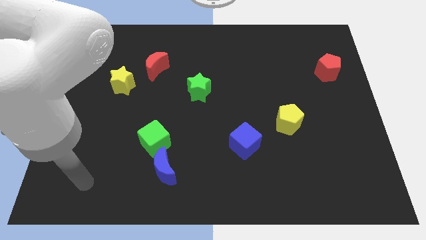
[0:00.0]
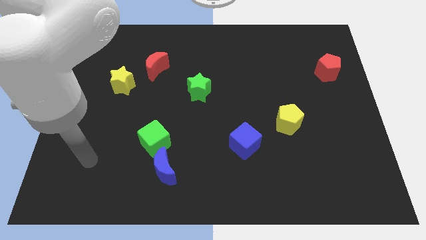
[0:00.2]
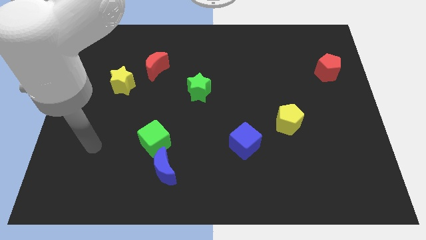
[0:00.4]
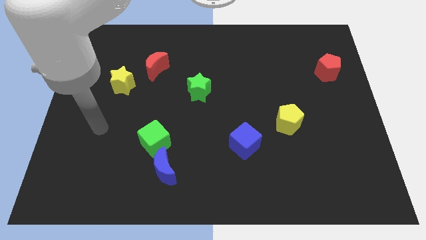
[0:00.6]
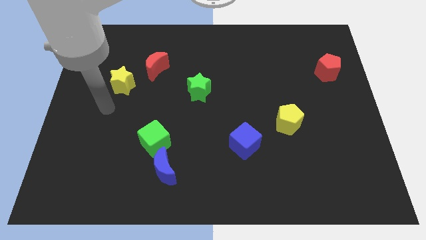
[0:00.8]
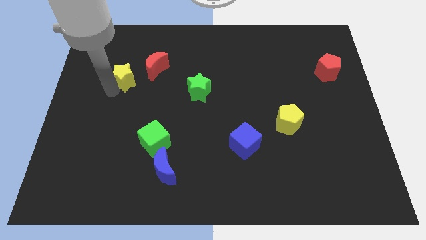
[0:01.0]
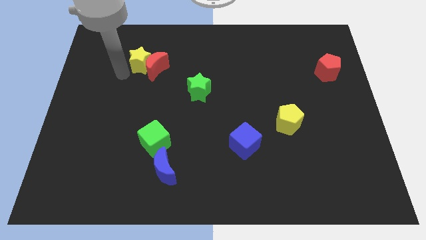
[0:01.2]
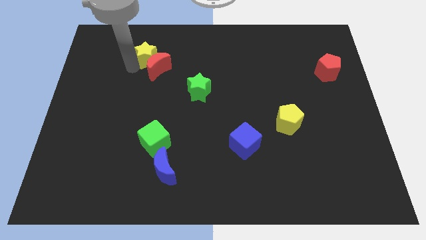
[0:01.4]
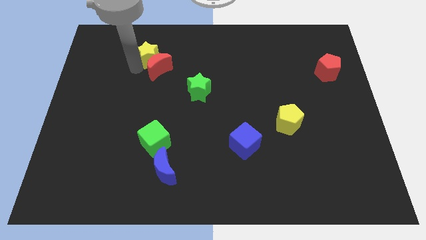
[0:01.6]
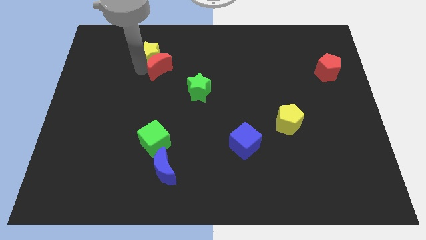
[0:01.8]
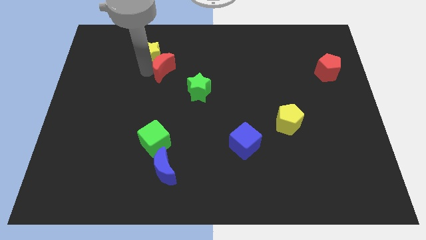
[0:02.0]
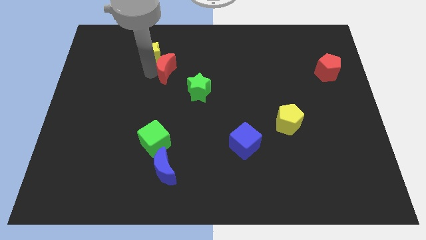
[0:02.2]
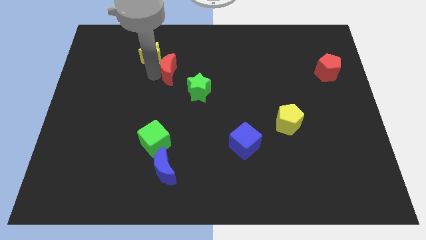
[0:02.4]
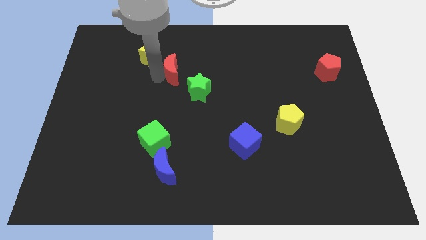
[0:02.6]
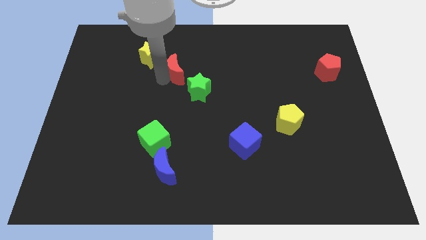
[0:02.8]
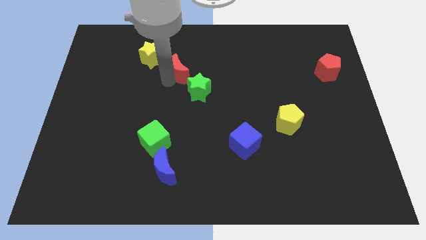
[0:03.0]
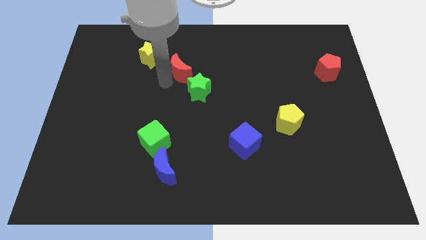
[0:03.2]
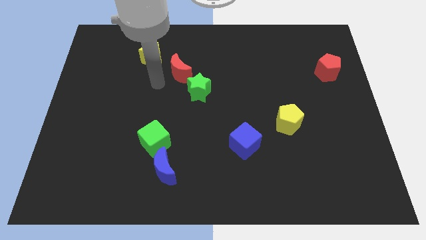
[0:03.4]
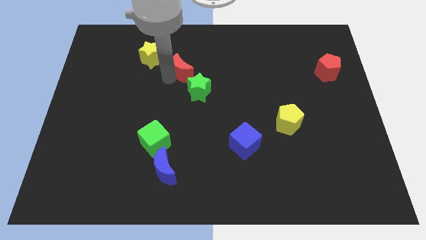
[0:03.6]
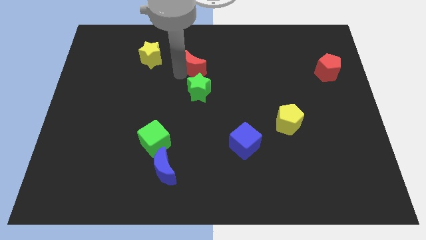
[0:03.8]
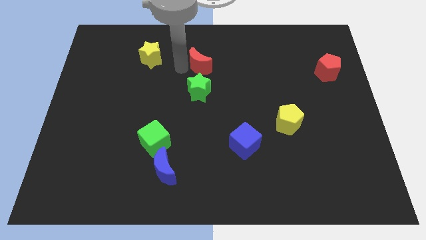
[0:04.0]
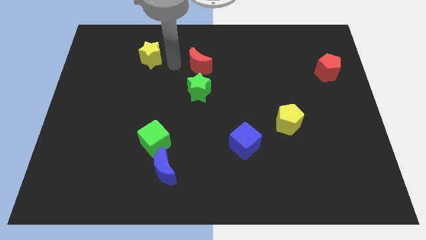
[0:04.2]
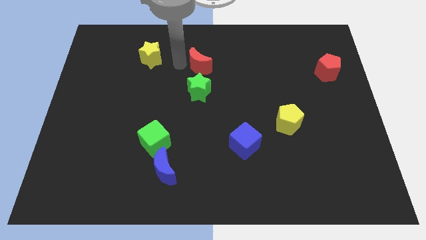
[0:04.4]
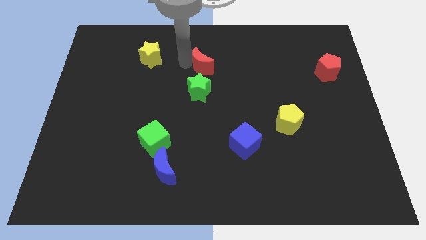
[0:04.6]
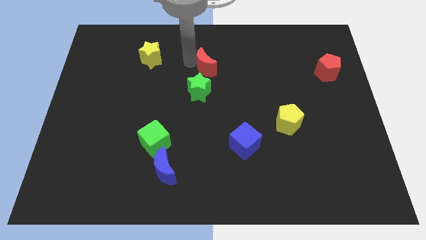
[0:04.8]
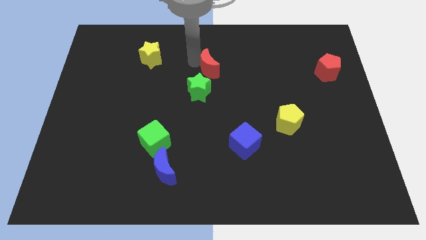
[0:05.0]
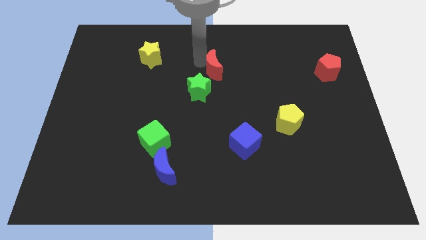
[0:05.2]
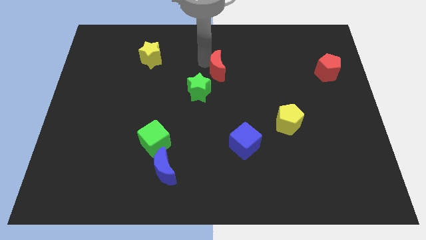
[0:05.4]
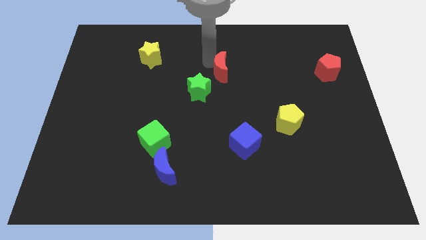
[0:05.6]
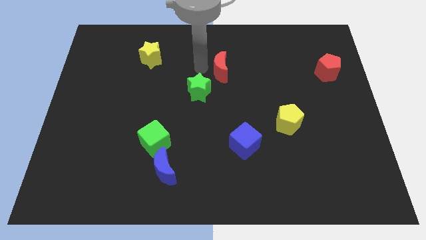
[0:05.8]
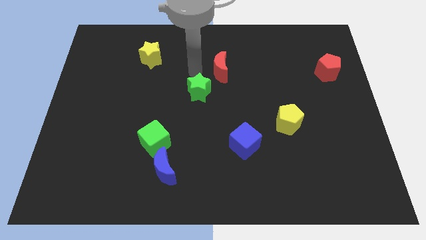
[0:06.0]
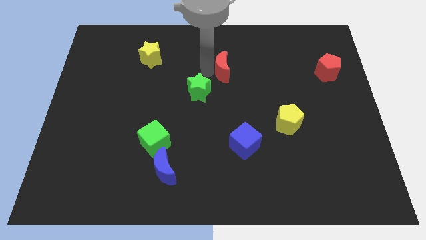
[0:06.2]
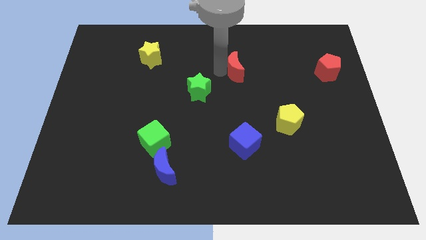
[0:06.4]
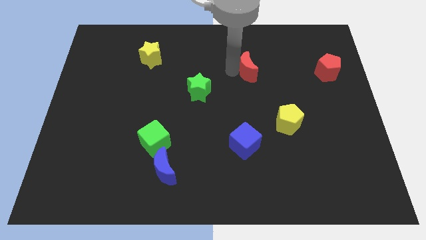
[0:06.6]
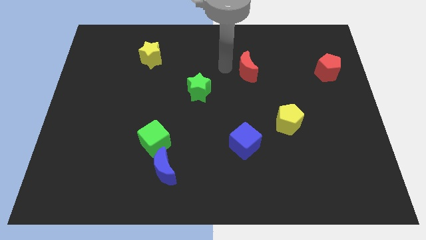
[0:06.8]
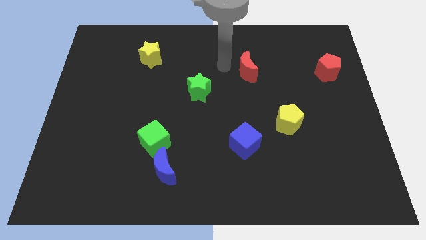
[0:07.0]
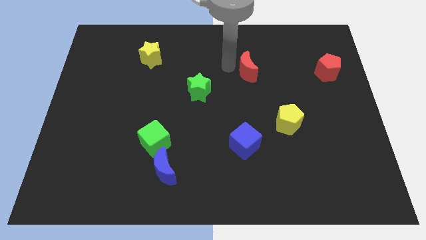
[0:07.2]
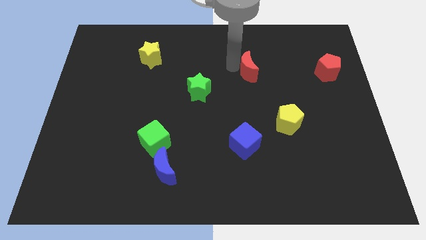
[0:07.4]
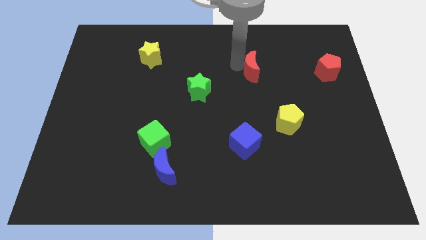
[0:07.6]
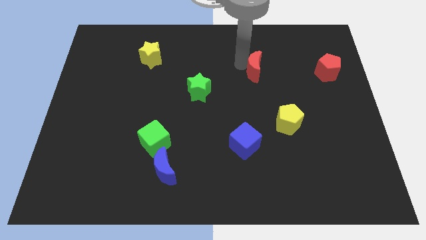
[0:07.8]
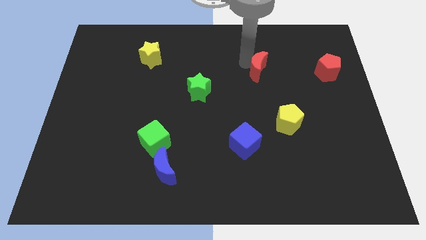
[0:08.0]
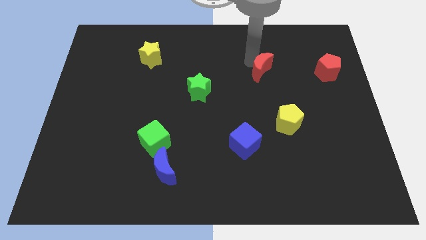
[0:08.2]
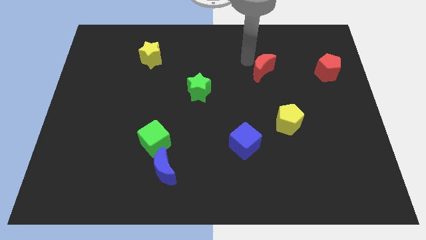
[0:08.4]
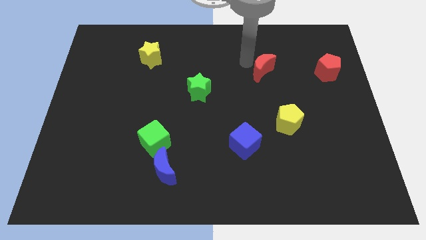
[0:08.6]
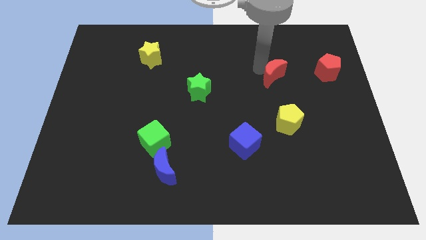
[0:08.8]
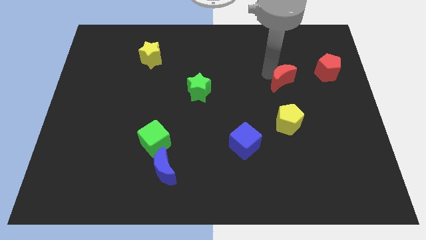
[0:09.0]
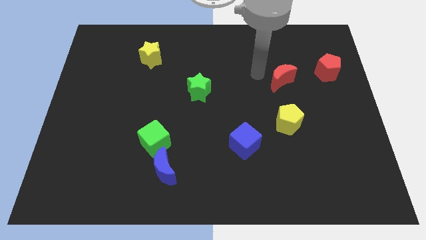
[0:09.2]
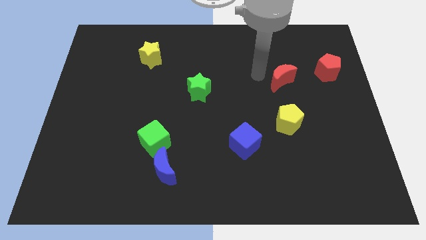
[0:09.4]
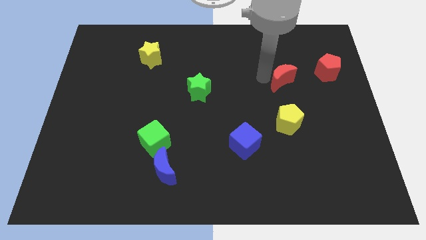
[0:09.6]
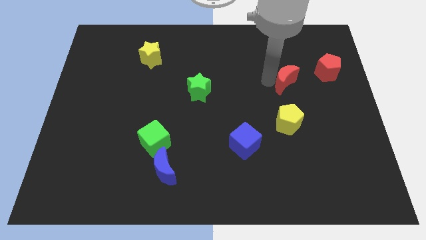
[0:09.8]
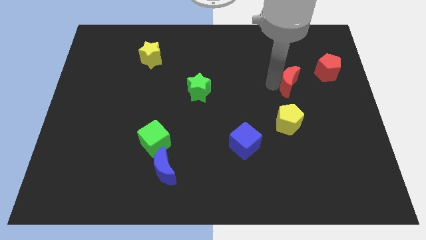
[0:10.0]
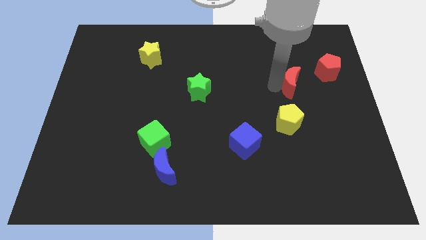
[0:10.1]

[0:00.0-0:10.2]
slide the red moon to the bottom left of the red pentagon

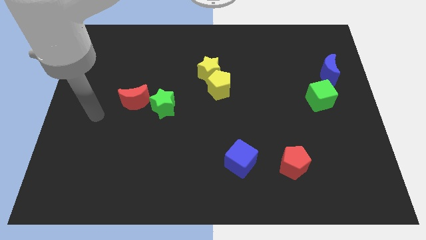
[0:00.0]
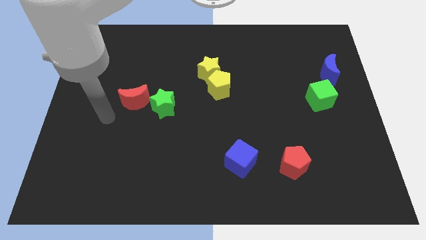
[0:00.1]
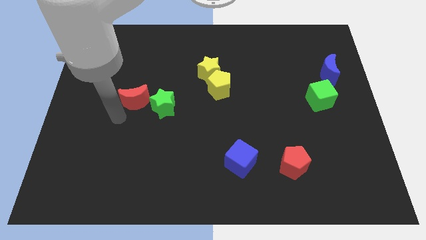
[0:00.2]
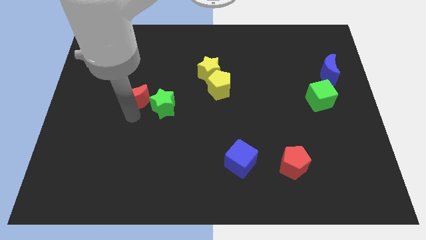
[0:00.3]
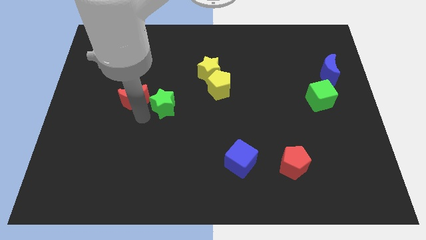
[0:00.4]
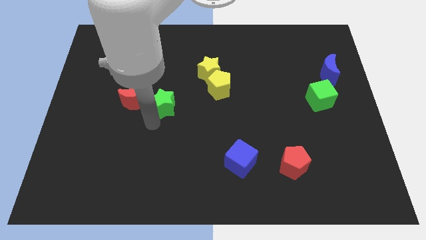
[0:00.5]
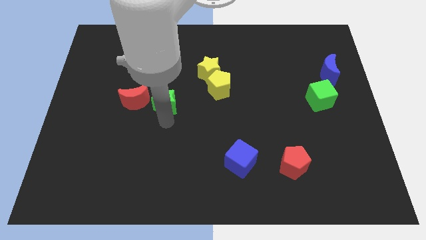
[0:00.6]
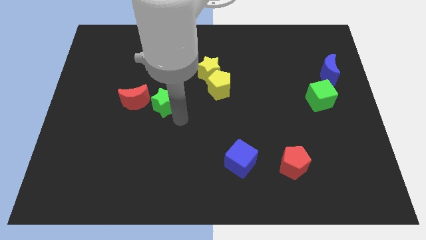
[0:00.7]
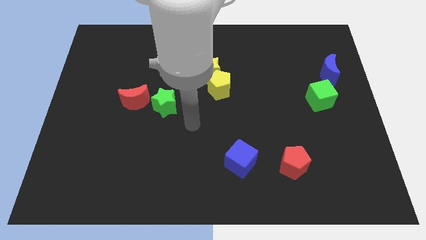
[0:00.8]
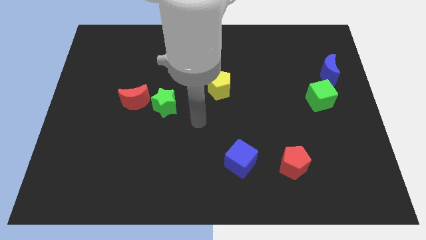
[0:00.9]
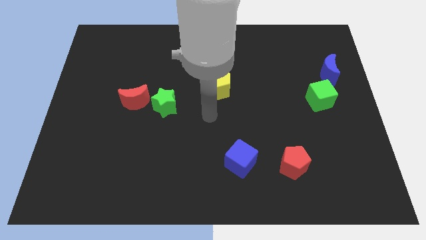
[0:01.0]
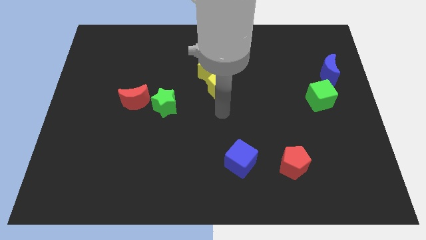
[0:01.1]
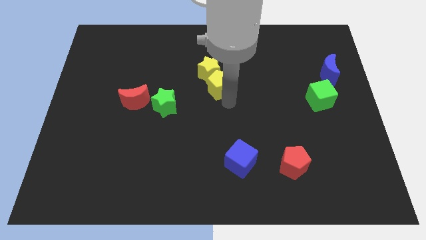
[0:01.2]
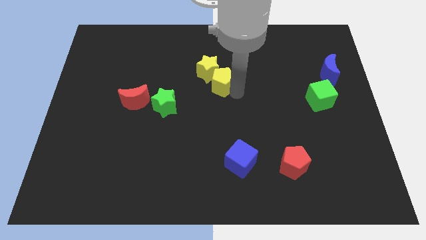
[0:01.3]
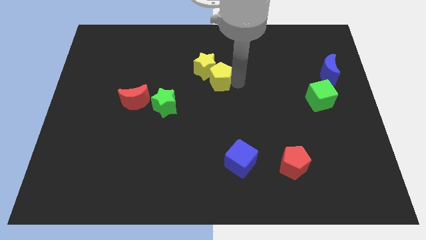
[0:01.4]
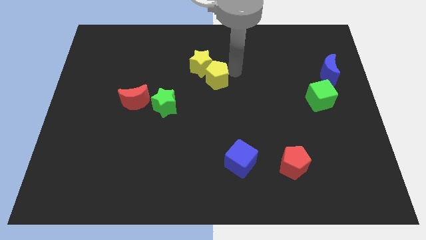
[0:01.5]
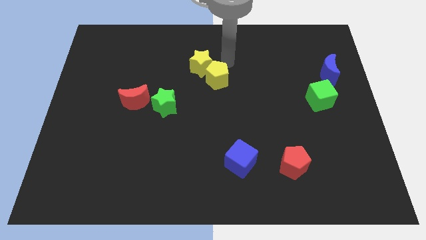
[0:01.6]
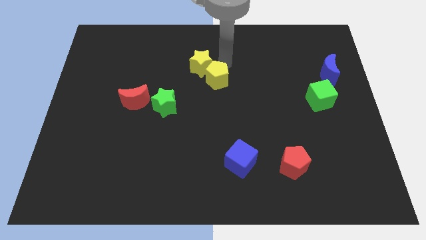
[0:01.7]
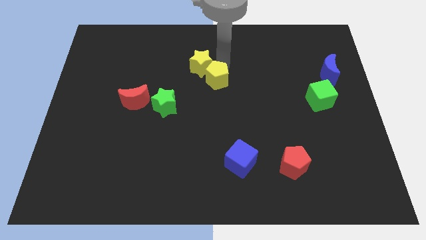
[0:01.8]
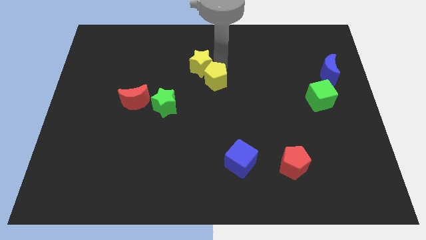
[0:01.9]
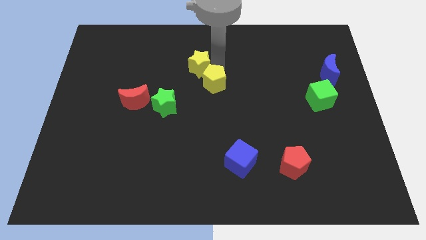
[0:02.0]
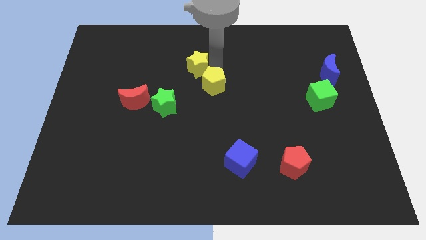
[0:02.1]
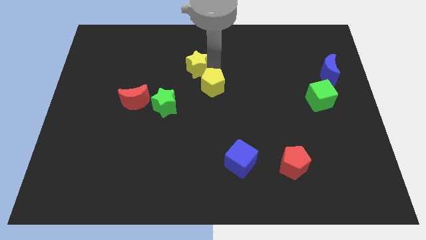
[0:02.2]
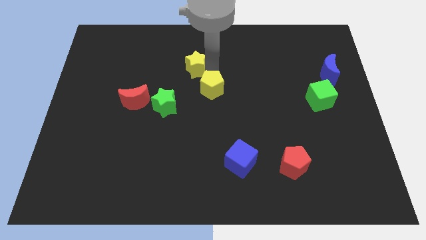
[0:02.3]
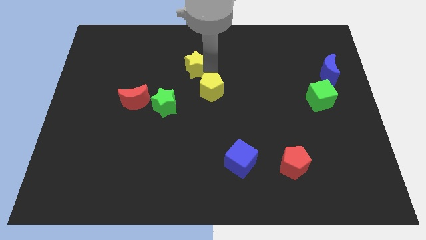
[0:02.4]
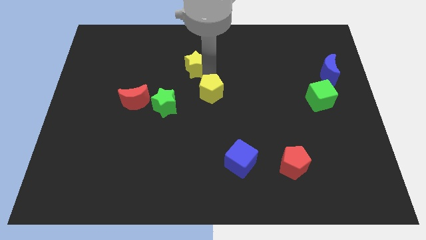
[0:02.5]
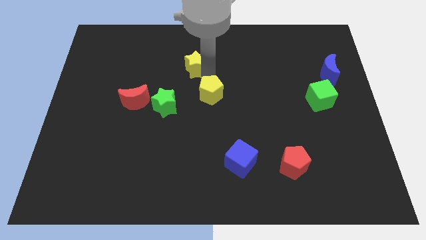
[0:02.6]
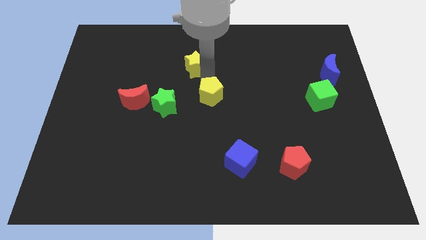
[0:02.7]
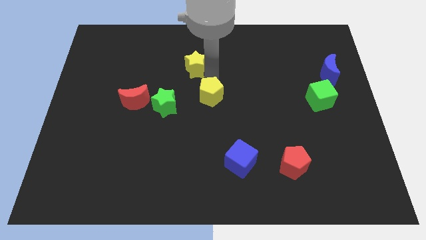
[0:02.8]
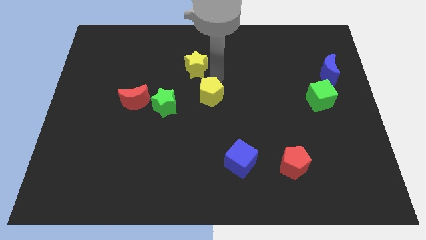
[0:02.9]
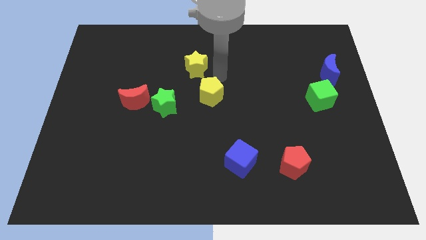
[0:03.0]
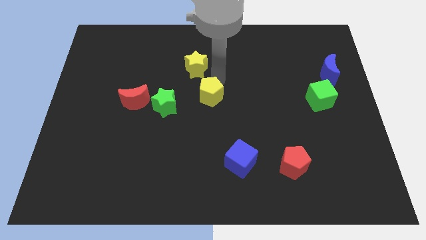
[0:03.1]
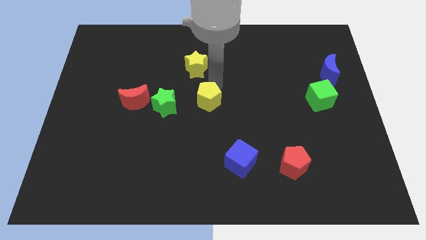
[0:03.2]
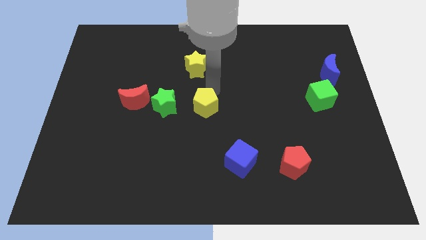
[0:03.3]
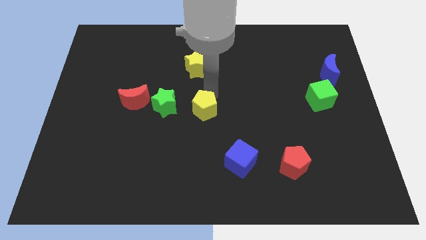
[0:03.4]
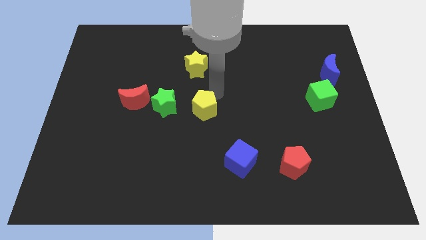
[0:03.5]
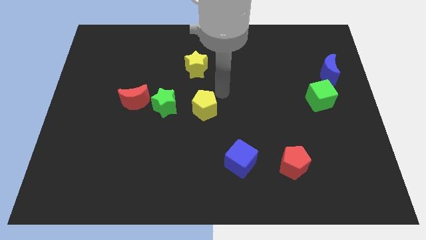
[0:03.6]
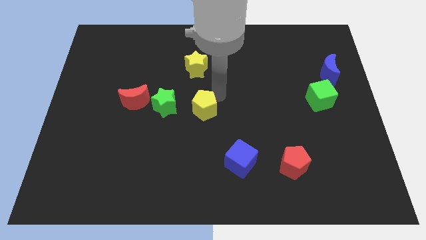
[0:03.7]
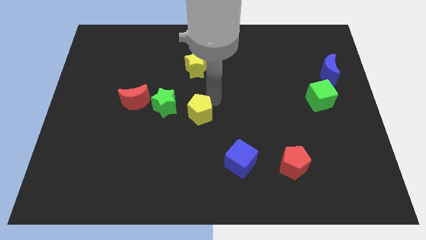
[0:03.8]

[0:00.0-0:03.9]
push the yellow pentagon diagonally down and to the right of the green star
